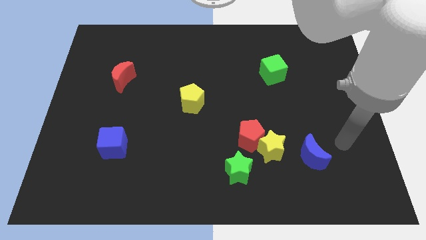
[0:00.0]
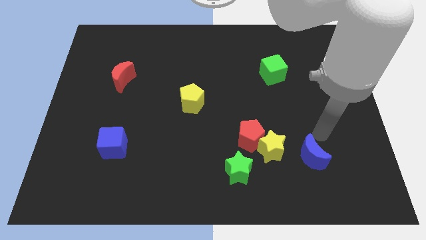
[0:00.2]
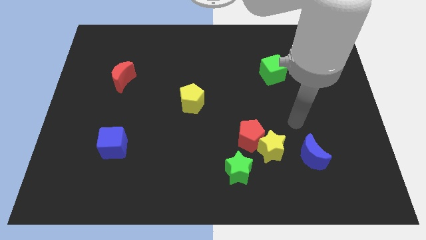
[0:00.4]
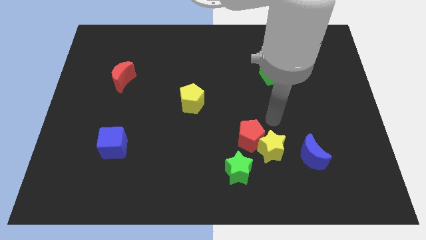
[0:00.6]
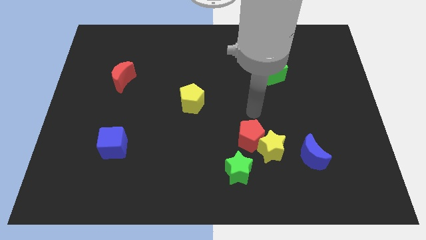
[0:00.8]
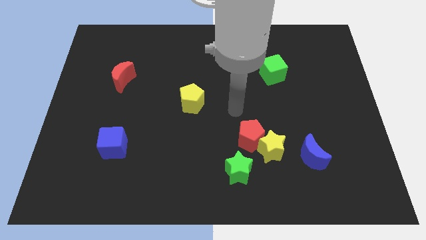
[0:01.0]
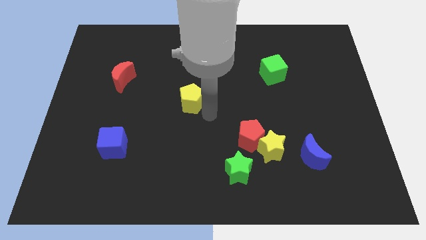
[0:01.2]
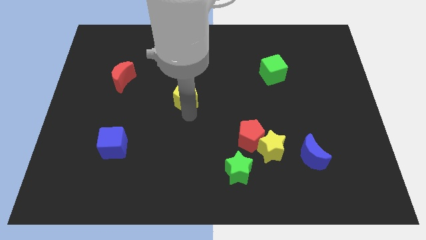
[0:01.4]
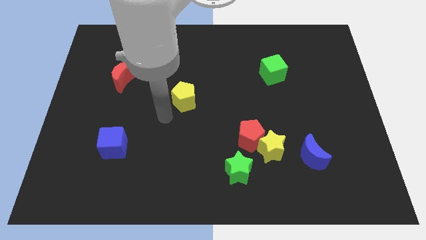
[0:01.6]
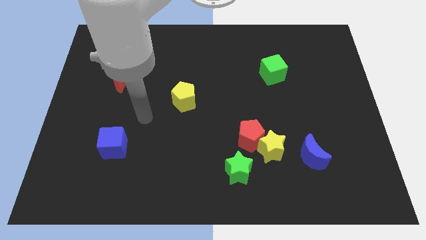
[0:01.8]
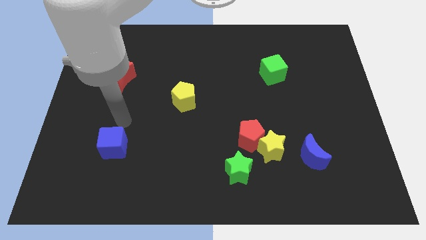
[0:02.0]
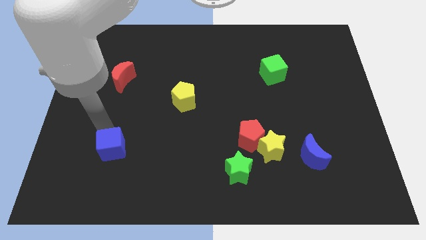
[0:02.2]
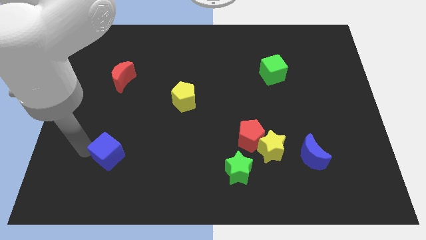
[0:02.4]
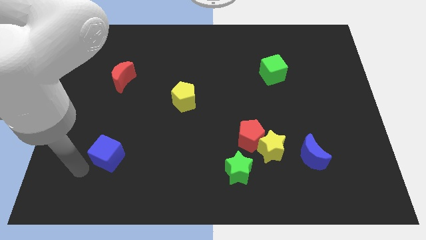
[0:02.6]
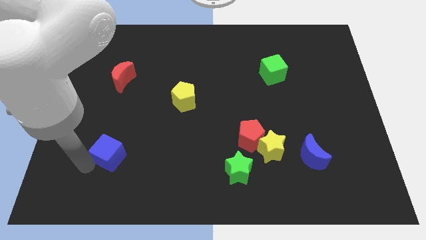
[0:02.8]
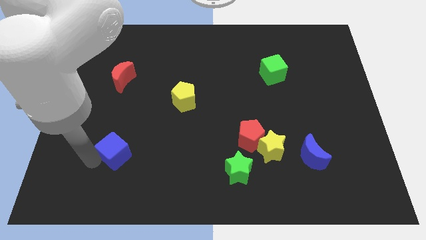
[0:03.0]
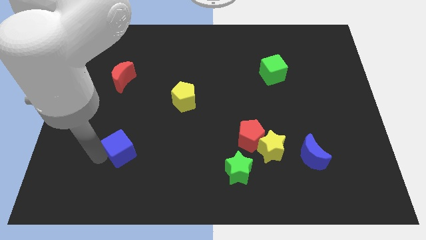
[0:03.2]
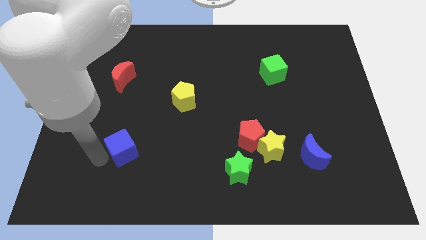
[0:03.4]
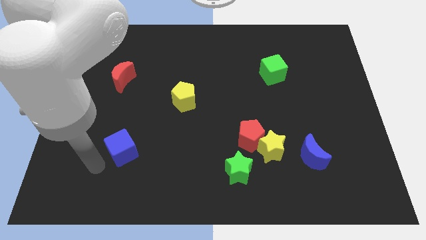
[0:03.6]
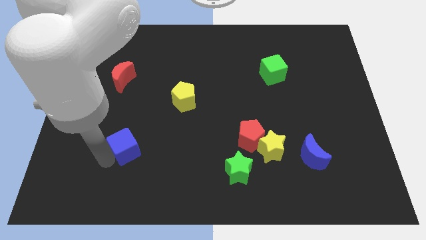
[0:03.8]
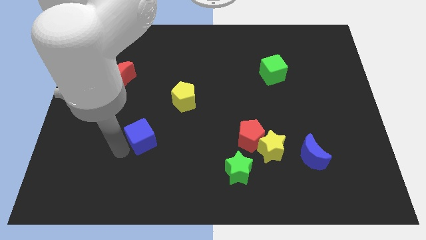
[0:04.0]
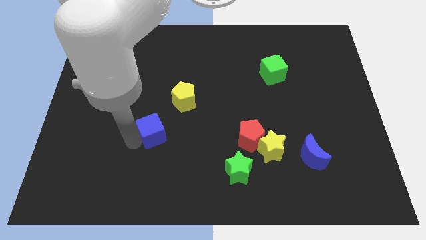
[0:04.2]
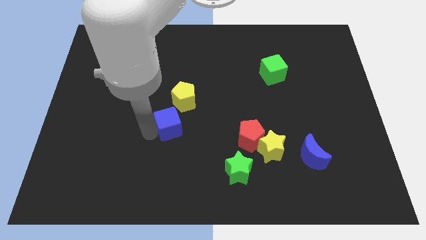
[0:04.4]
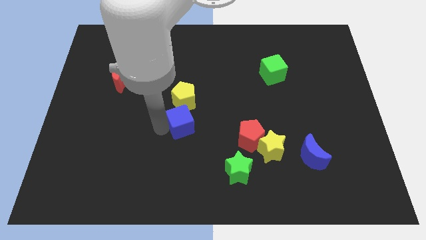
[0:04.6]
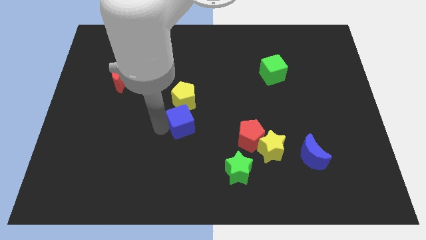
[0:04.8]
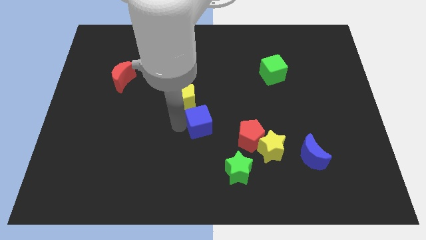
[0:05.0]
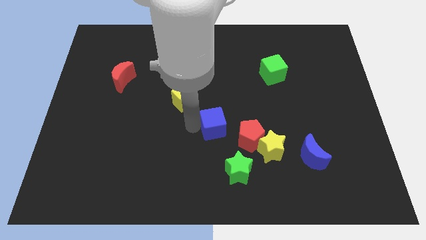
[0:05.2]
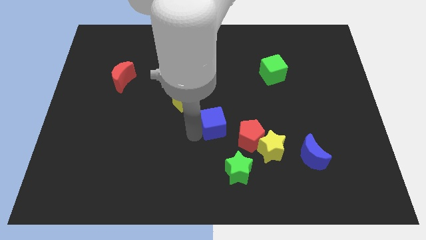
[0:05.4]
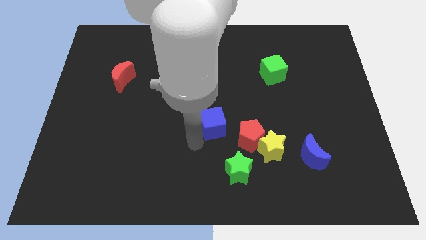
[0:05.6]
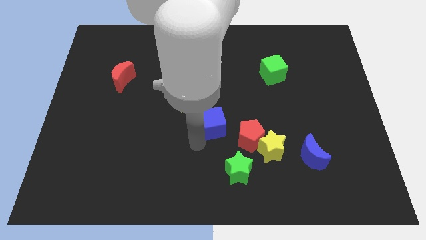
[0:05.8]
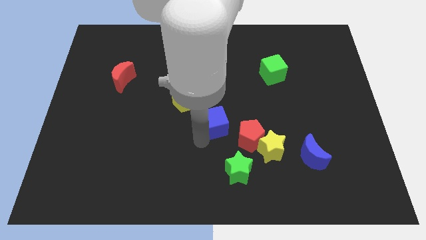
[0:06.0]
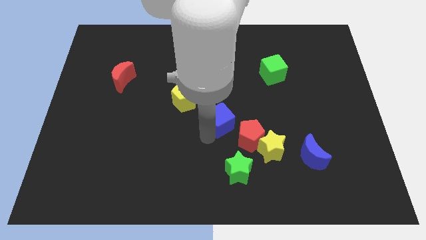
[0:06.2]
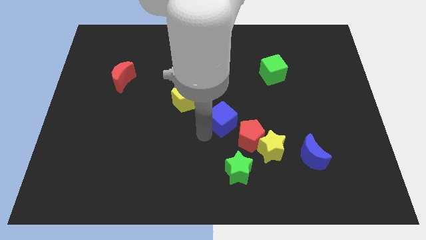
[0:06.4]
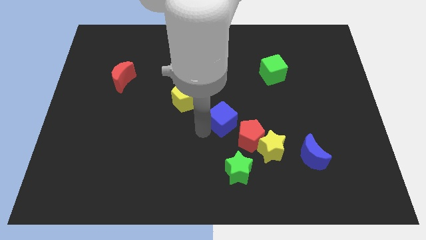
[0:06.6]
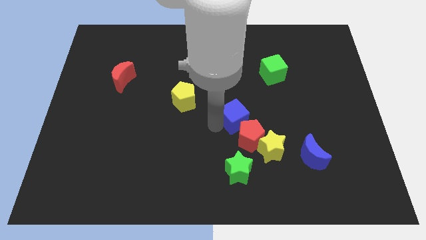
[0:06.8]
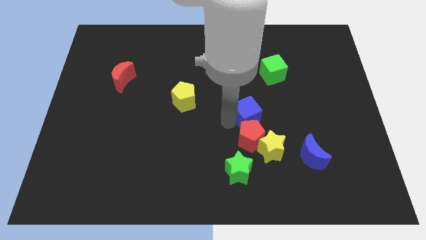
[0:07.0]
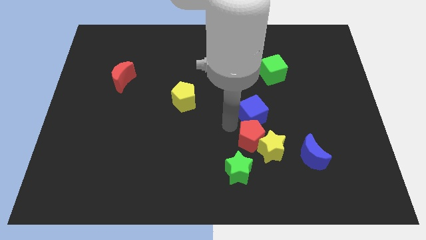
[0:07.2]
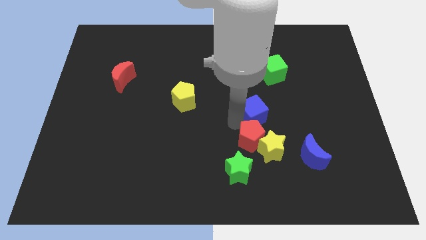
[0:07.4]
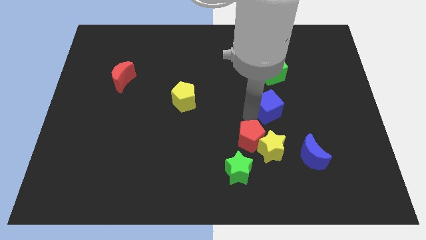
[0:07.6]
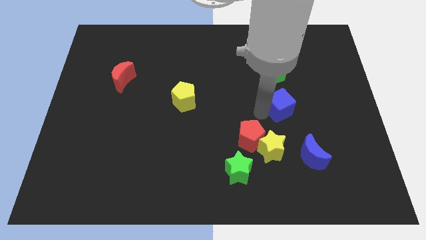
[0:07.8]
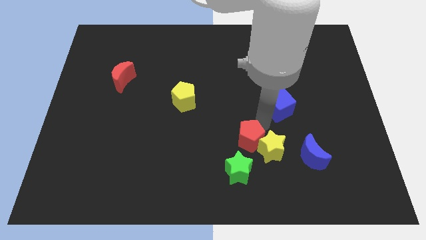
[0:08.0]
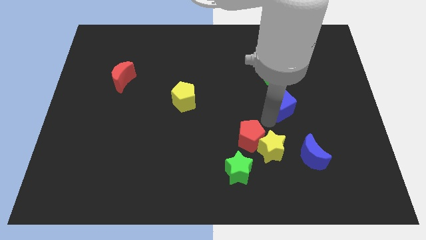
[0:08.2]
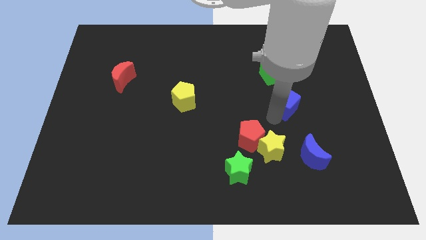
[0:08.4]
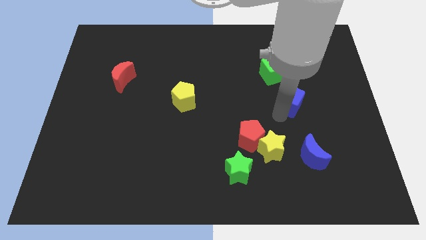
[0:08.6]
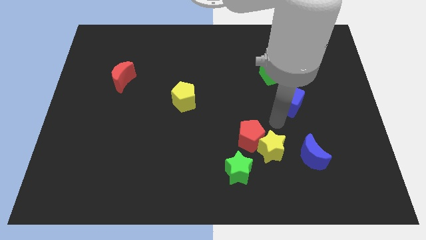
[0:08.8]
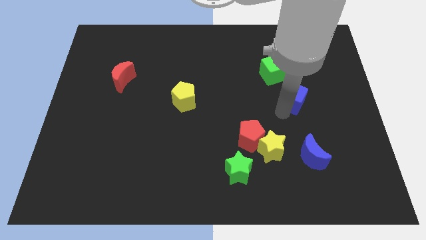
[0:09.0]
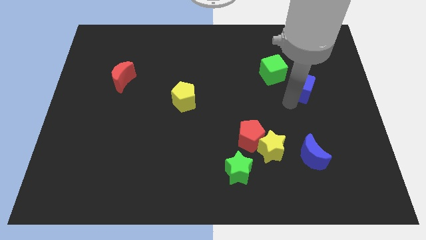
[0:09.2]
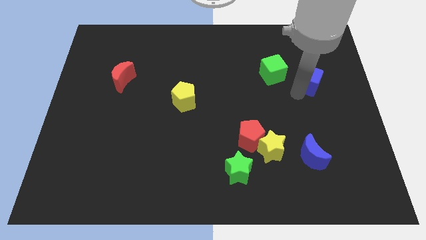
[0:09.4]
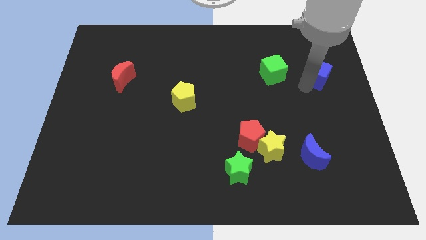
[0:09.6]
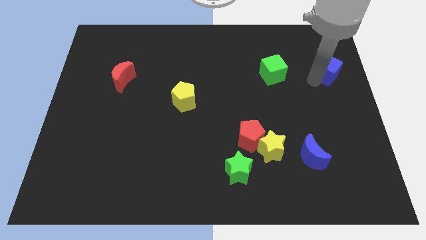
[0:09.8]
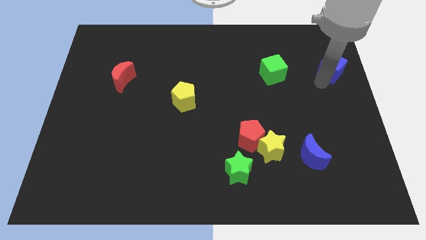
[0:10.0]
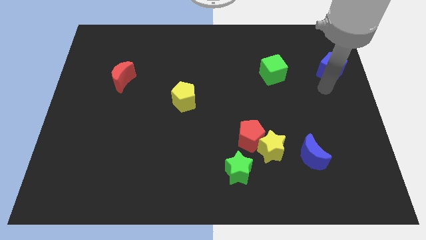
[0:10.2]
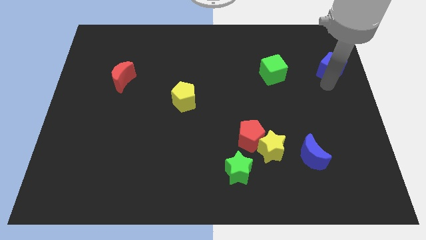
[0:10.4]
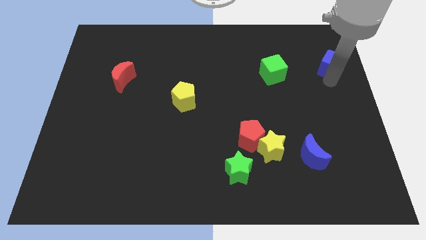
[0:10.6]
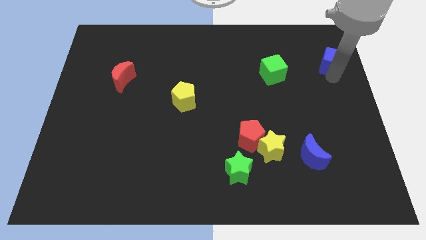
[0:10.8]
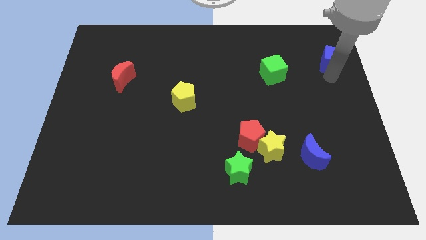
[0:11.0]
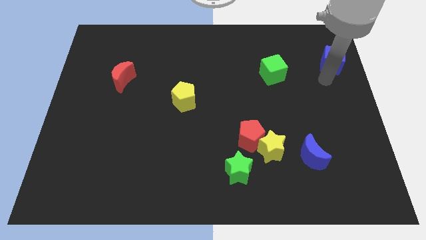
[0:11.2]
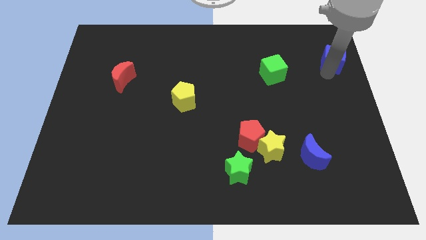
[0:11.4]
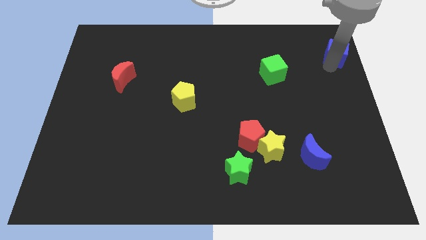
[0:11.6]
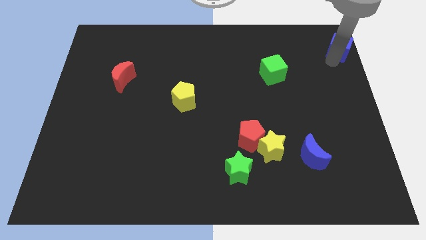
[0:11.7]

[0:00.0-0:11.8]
move the blue cube to the top right of the board

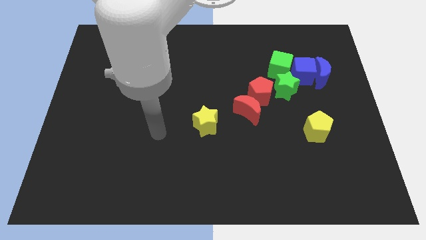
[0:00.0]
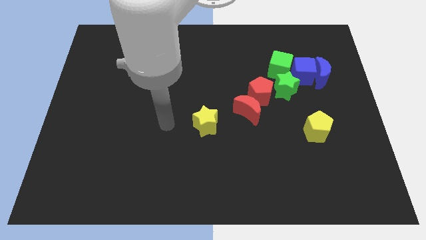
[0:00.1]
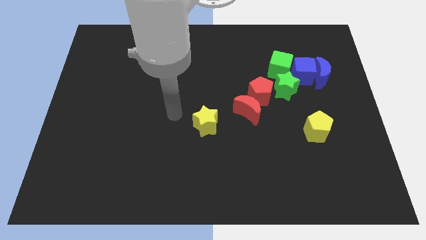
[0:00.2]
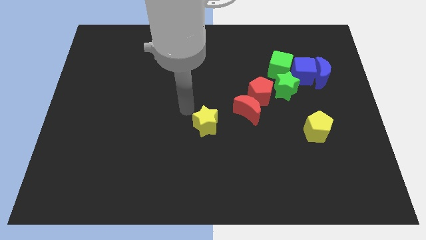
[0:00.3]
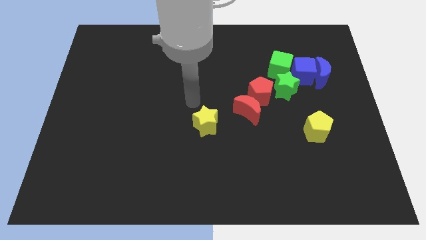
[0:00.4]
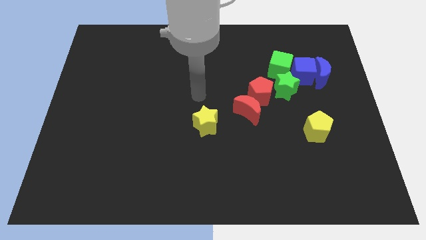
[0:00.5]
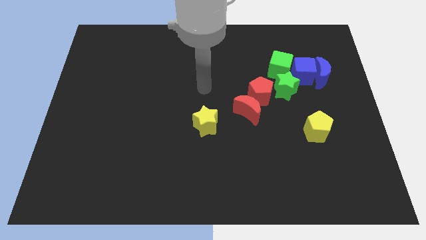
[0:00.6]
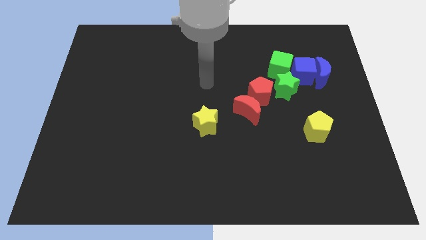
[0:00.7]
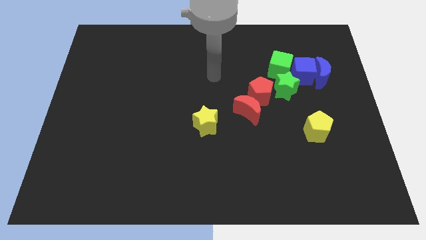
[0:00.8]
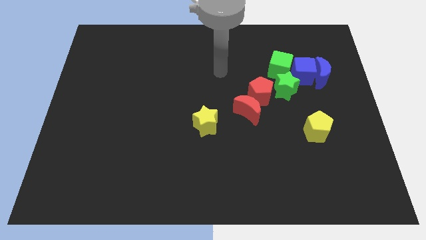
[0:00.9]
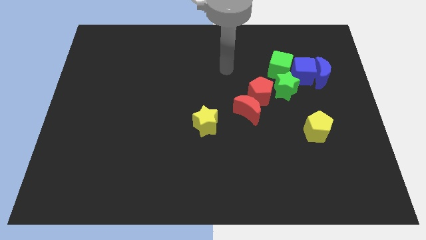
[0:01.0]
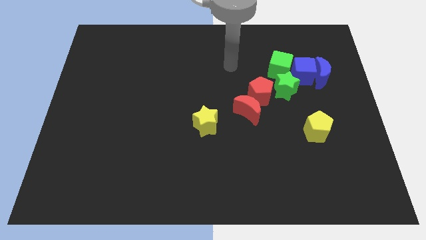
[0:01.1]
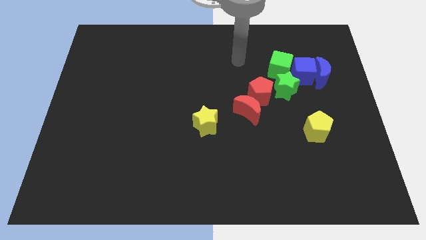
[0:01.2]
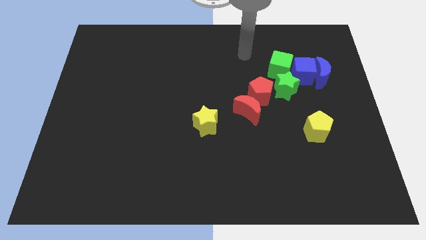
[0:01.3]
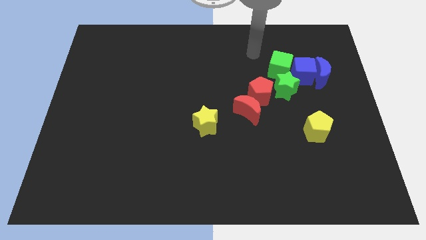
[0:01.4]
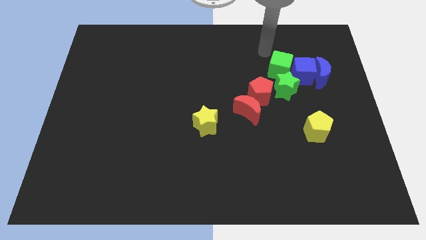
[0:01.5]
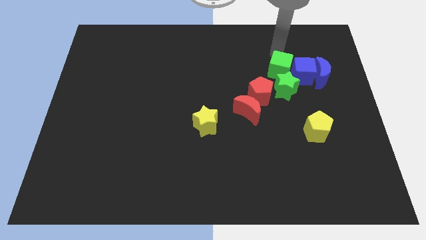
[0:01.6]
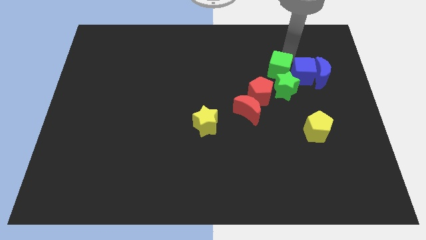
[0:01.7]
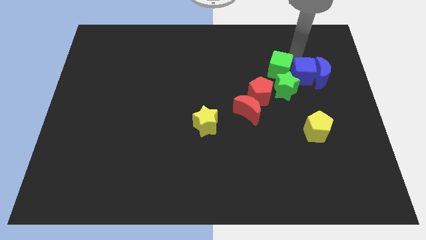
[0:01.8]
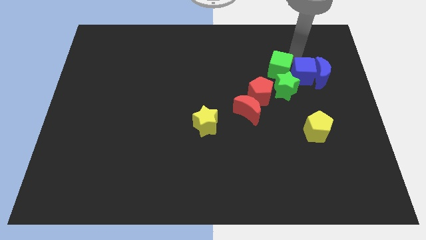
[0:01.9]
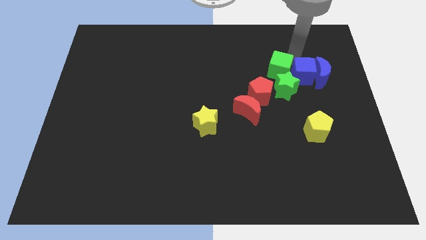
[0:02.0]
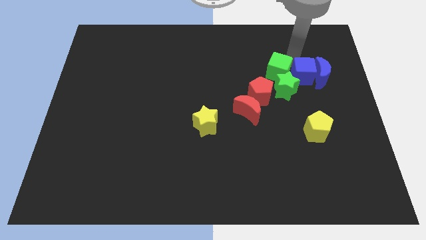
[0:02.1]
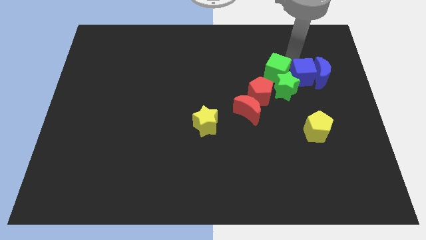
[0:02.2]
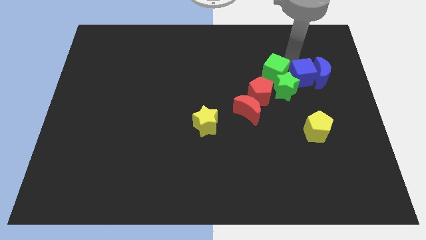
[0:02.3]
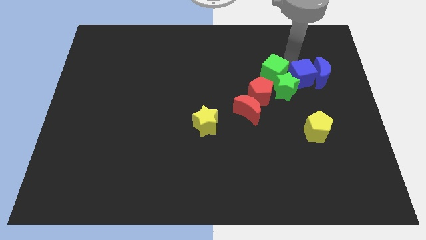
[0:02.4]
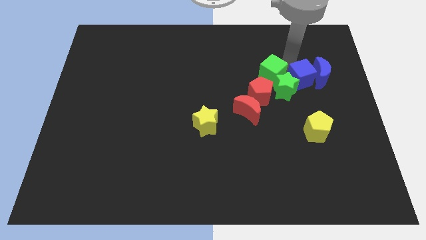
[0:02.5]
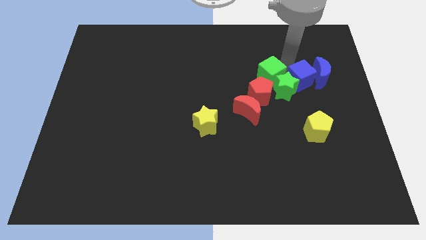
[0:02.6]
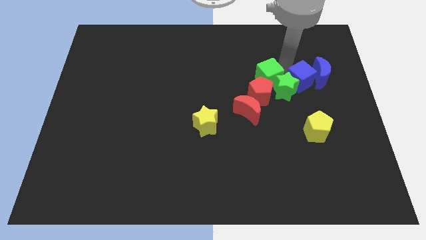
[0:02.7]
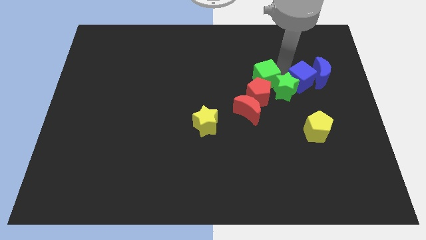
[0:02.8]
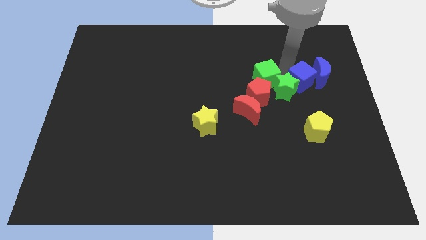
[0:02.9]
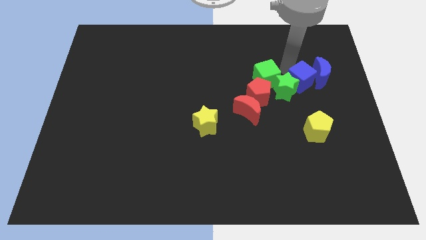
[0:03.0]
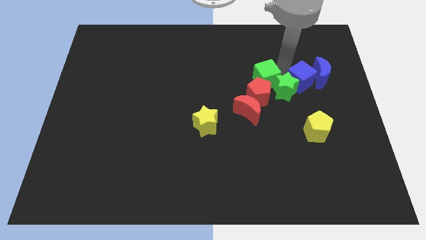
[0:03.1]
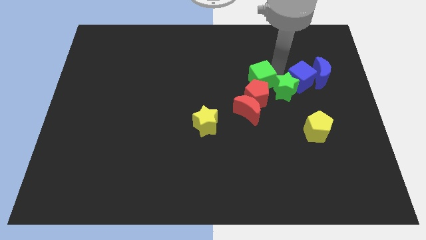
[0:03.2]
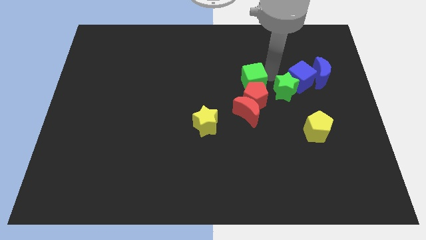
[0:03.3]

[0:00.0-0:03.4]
slide the green cube to the middle
